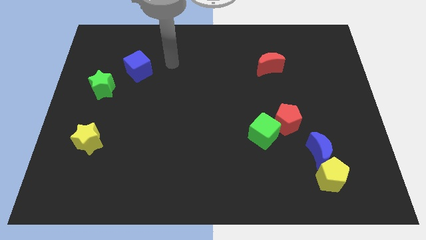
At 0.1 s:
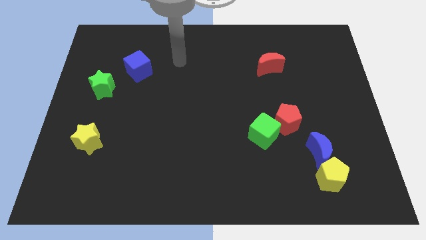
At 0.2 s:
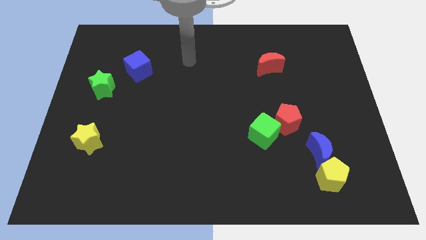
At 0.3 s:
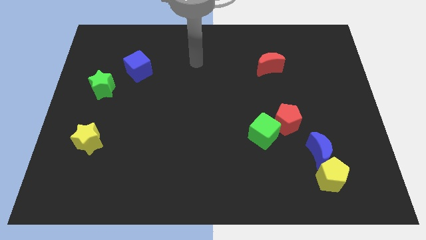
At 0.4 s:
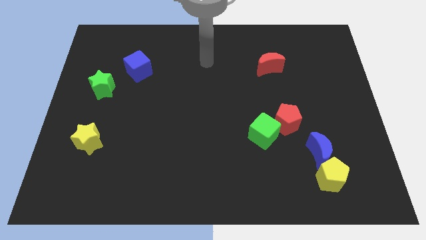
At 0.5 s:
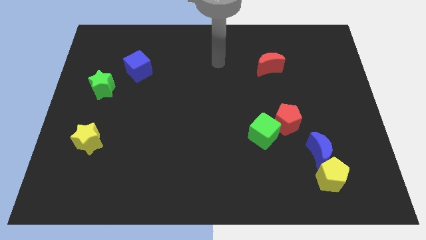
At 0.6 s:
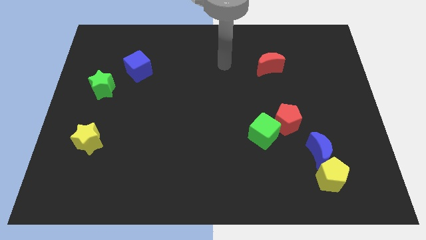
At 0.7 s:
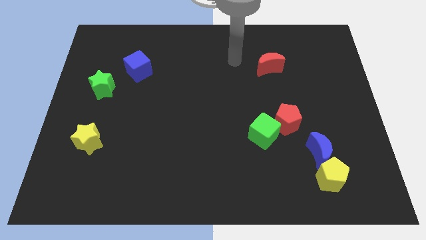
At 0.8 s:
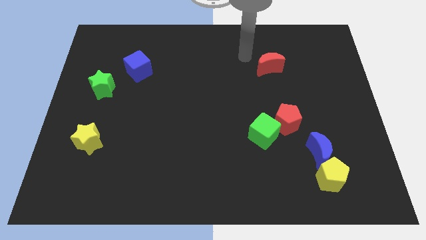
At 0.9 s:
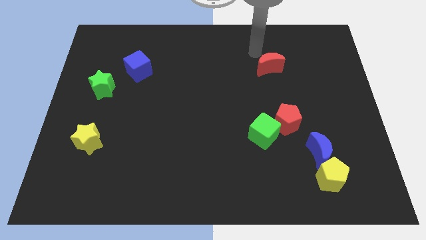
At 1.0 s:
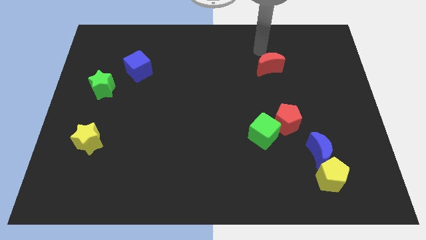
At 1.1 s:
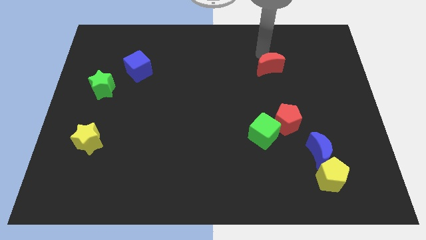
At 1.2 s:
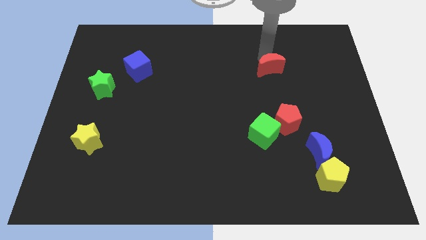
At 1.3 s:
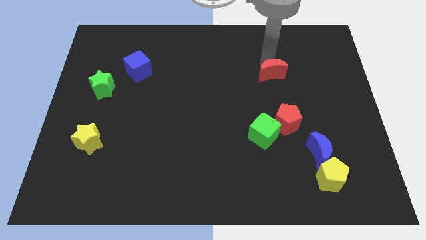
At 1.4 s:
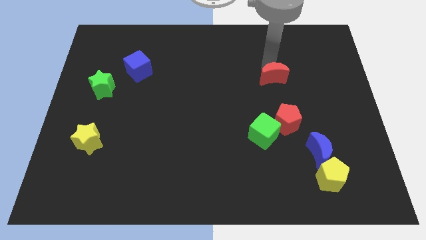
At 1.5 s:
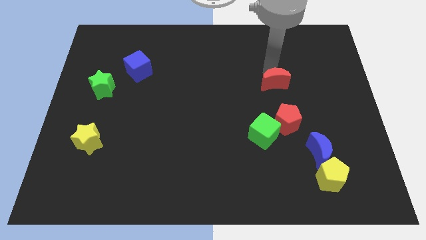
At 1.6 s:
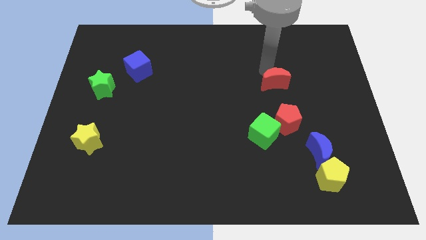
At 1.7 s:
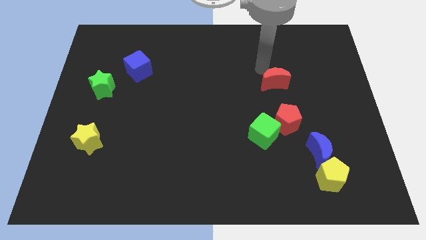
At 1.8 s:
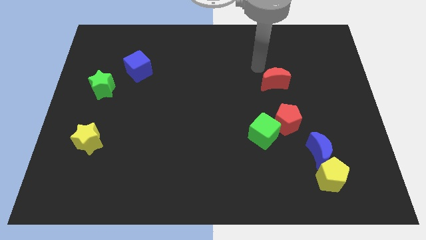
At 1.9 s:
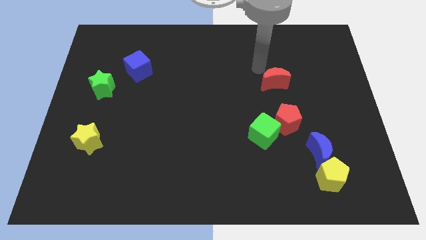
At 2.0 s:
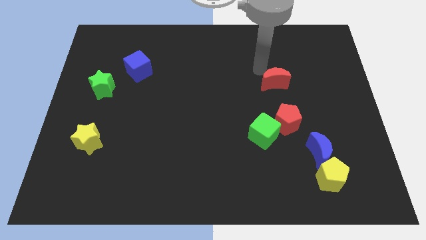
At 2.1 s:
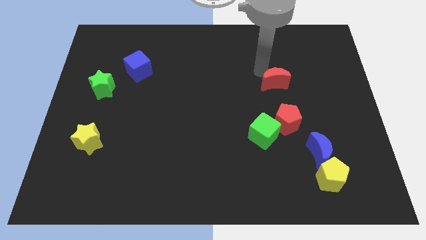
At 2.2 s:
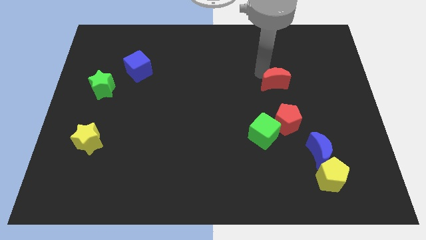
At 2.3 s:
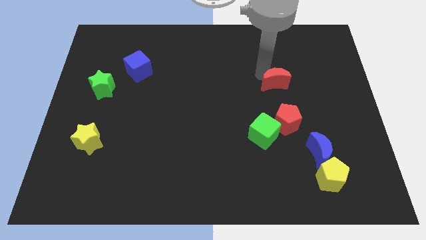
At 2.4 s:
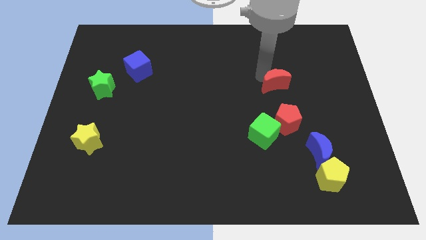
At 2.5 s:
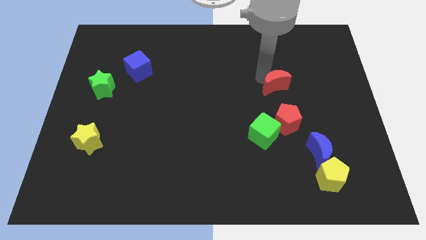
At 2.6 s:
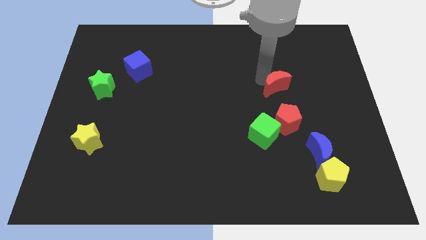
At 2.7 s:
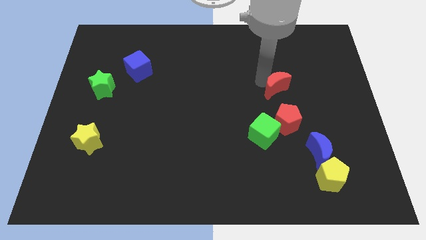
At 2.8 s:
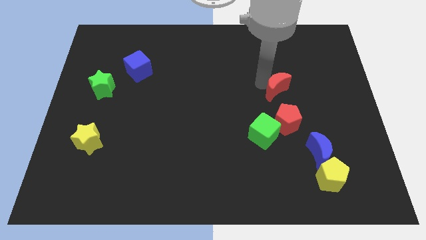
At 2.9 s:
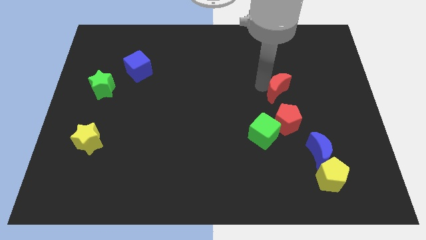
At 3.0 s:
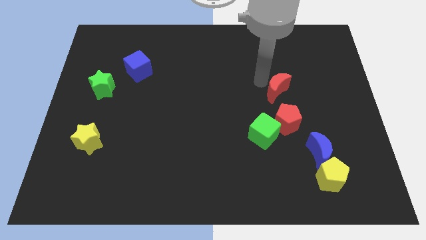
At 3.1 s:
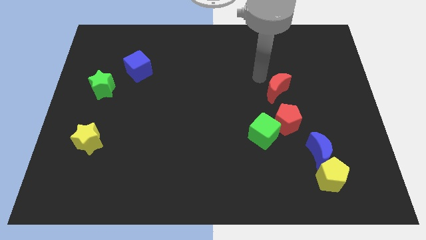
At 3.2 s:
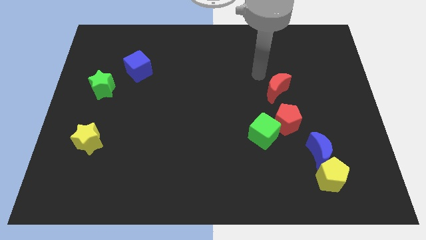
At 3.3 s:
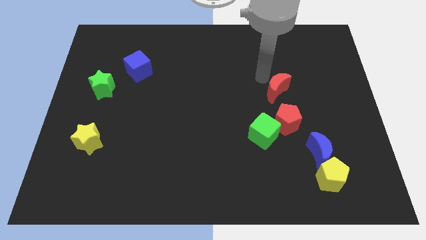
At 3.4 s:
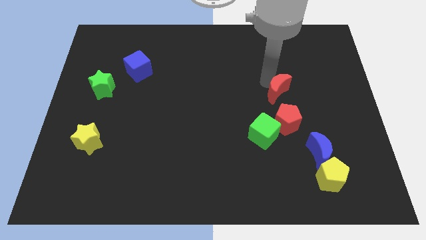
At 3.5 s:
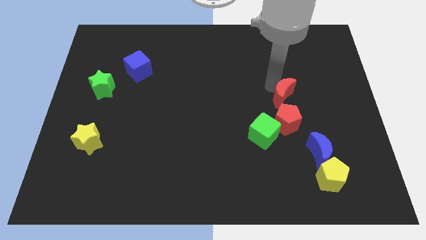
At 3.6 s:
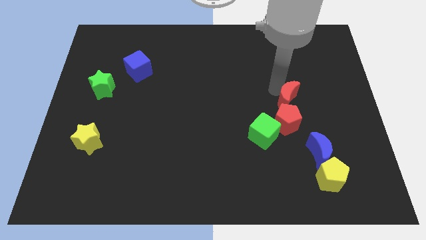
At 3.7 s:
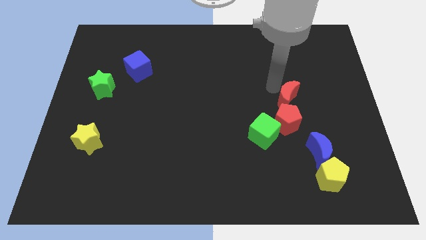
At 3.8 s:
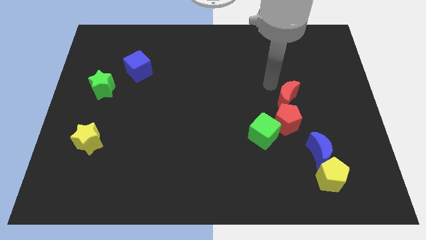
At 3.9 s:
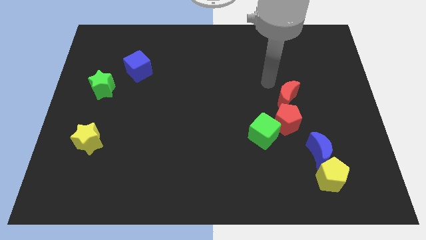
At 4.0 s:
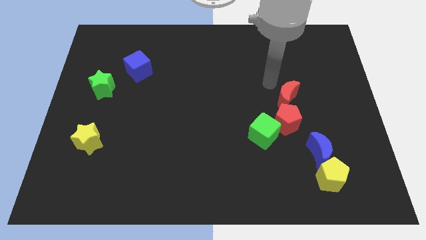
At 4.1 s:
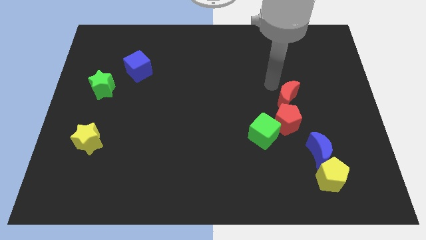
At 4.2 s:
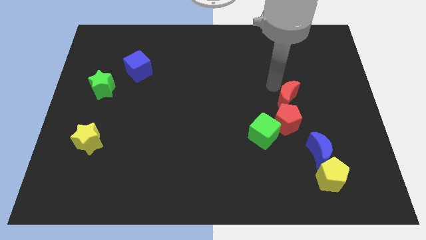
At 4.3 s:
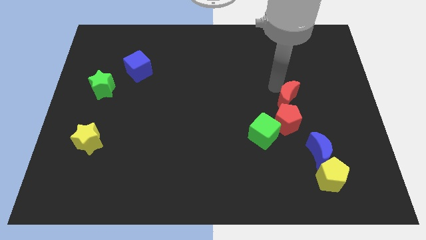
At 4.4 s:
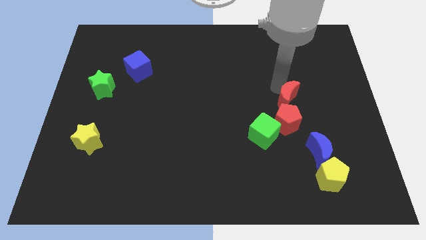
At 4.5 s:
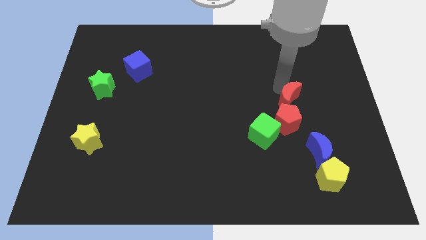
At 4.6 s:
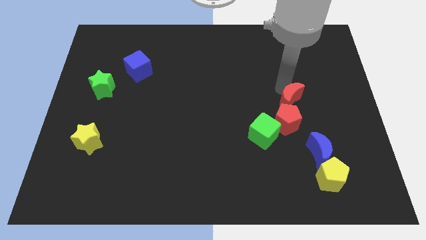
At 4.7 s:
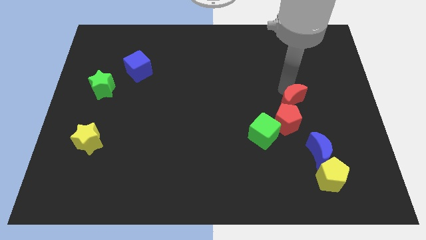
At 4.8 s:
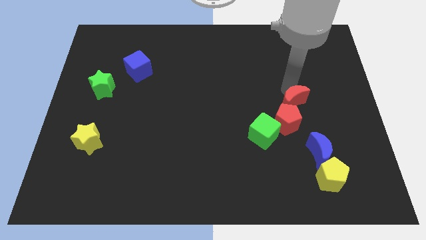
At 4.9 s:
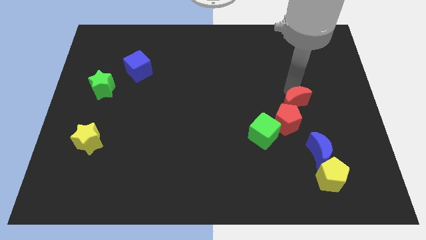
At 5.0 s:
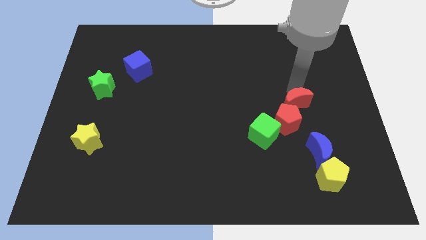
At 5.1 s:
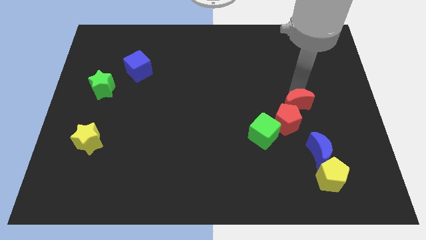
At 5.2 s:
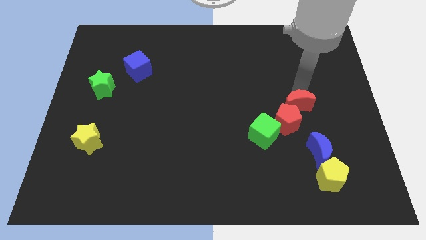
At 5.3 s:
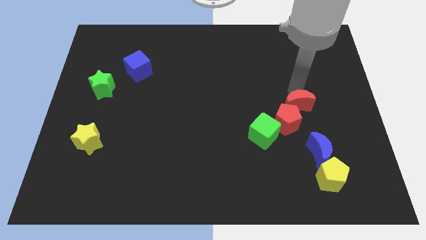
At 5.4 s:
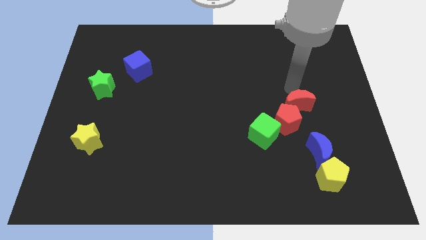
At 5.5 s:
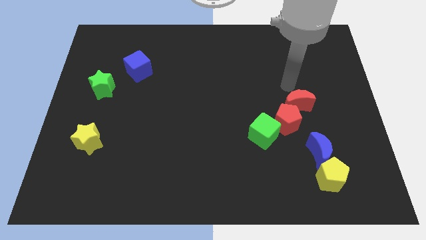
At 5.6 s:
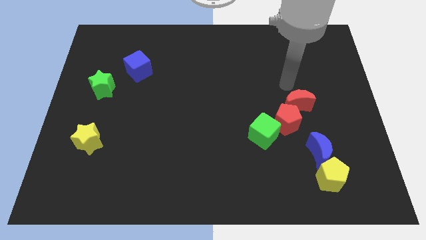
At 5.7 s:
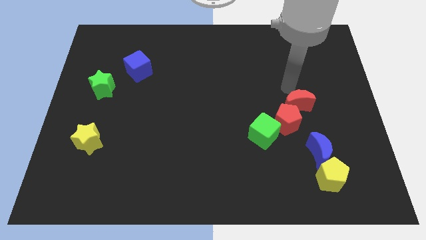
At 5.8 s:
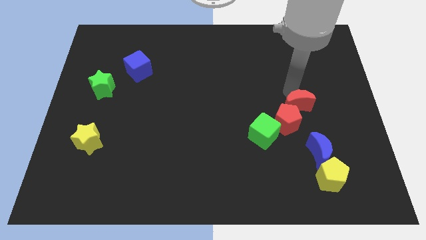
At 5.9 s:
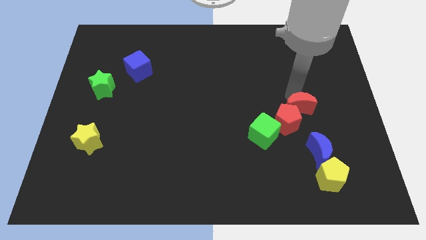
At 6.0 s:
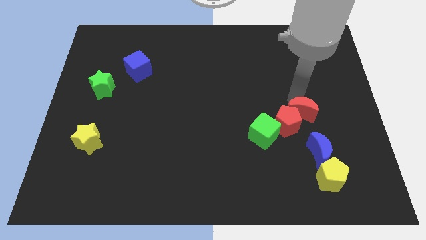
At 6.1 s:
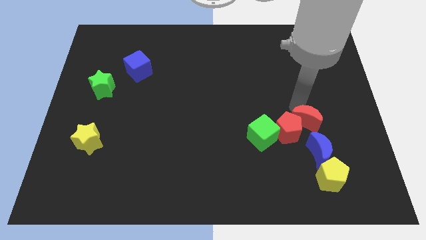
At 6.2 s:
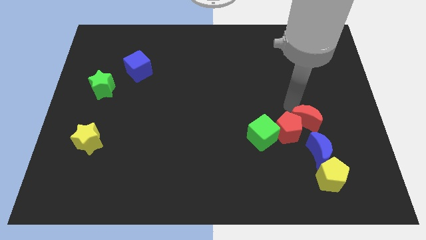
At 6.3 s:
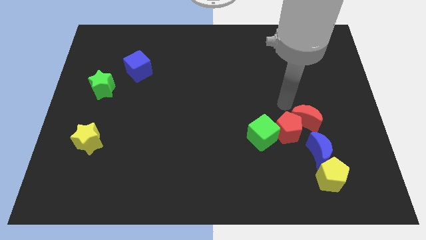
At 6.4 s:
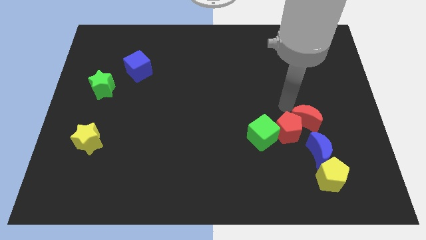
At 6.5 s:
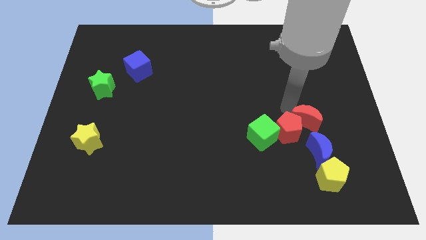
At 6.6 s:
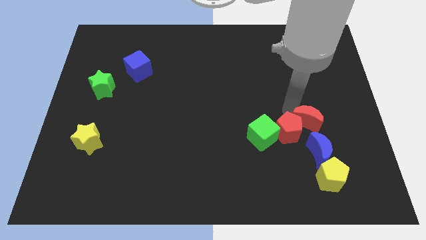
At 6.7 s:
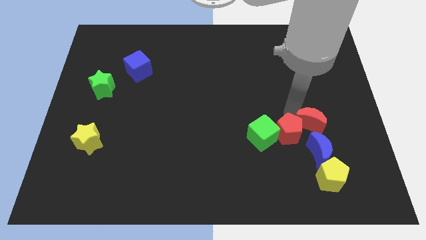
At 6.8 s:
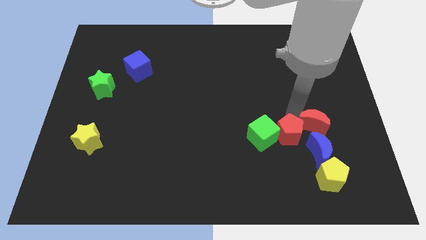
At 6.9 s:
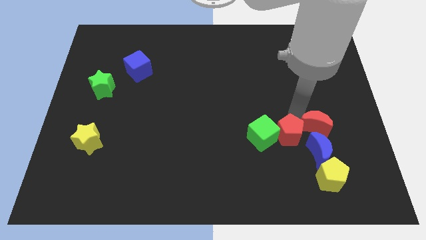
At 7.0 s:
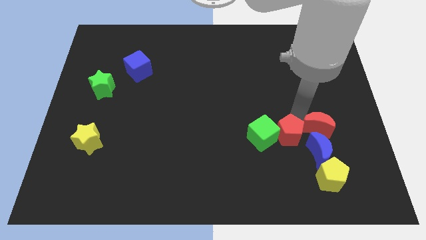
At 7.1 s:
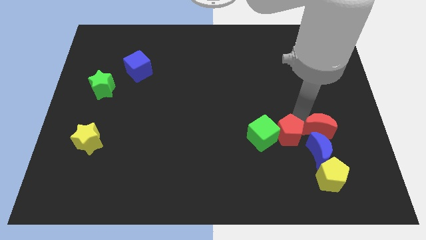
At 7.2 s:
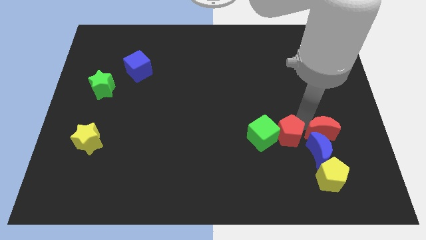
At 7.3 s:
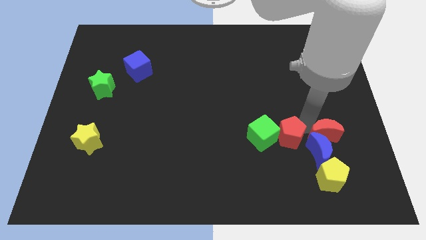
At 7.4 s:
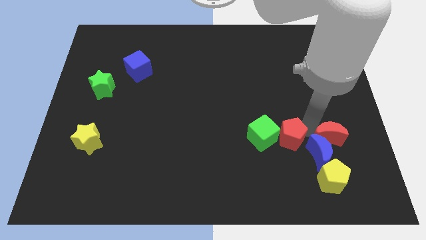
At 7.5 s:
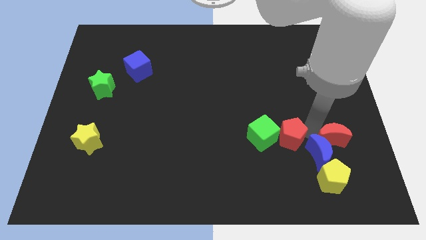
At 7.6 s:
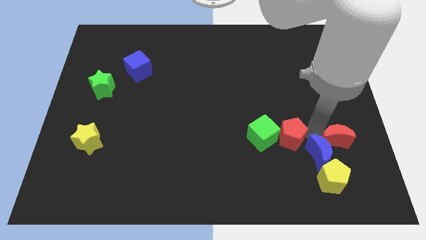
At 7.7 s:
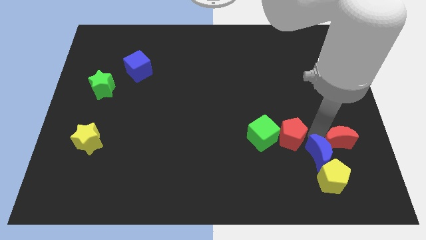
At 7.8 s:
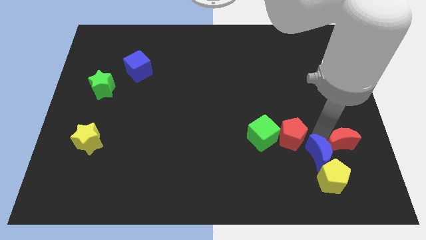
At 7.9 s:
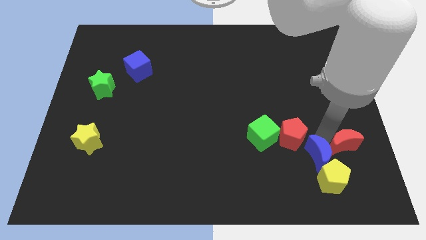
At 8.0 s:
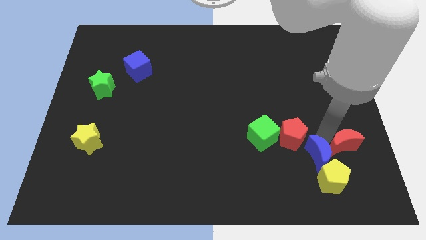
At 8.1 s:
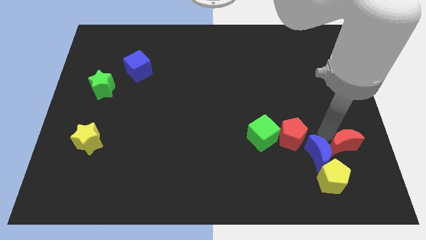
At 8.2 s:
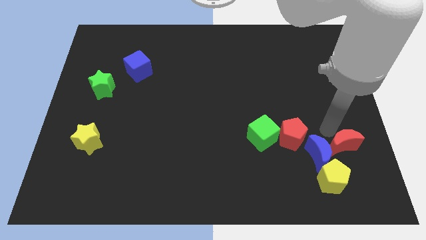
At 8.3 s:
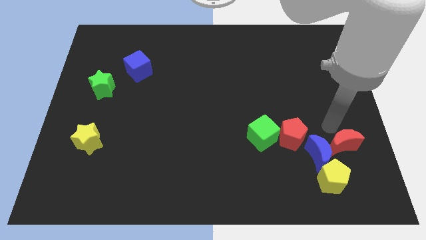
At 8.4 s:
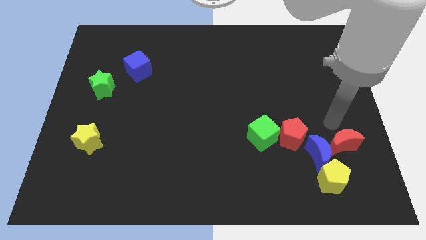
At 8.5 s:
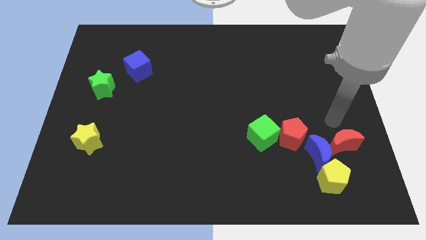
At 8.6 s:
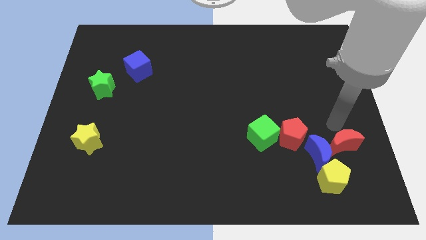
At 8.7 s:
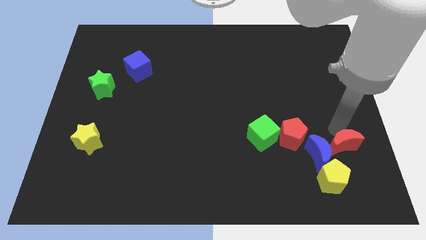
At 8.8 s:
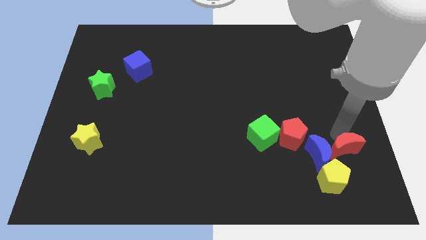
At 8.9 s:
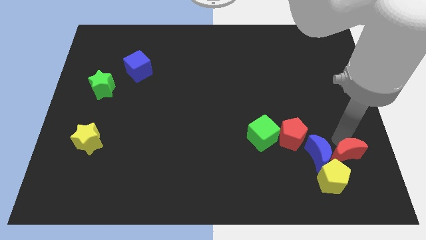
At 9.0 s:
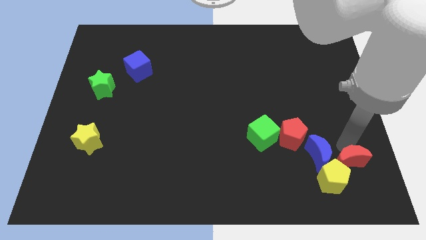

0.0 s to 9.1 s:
move the red moon close to the yellow pentagon
